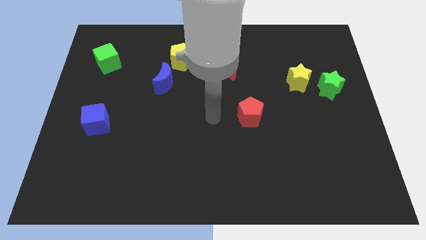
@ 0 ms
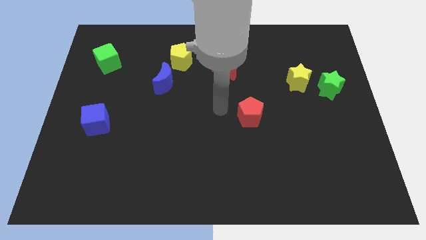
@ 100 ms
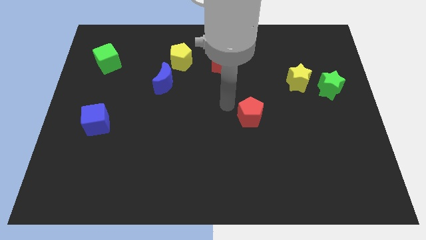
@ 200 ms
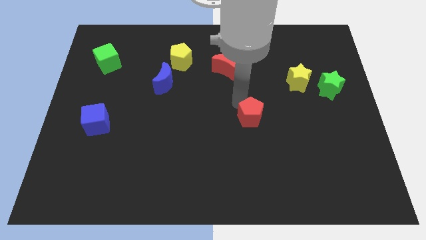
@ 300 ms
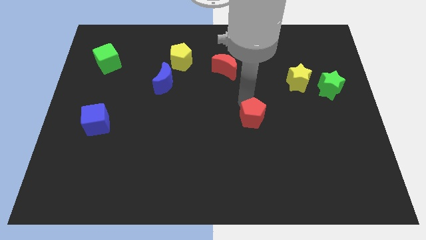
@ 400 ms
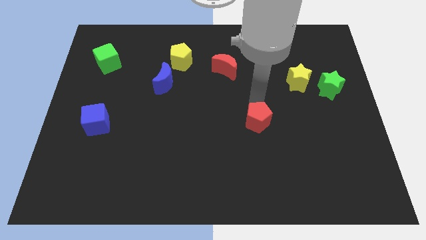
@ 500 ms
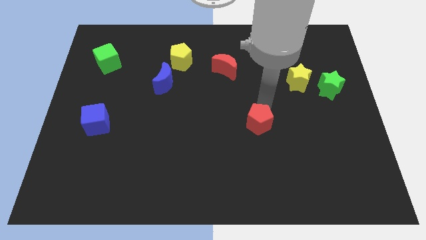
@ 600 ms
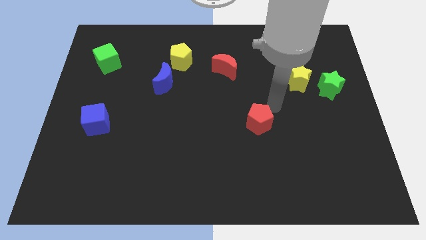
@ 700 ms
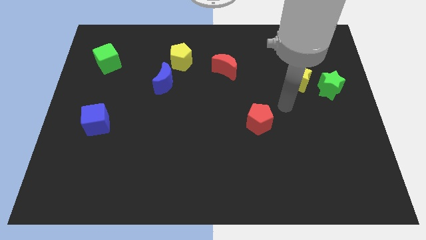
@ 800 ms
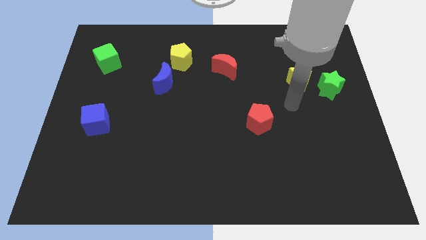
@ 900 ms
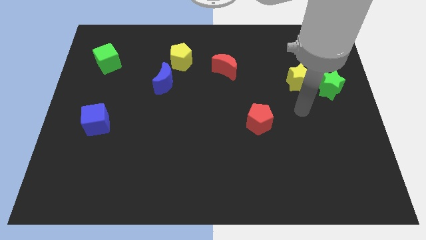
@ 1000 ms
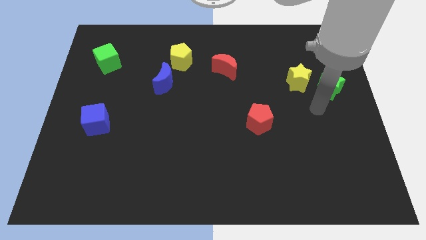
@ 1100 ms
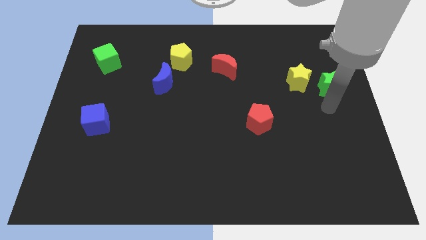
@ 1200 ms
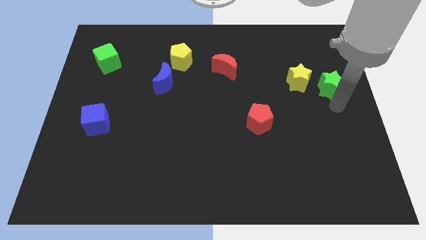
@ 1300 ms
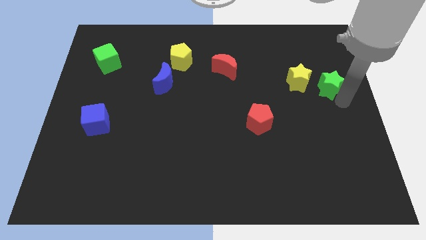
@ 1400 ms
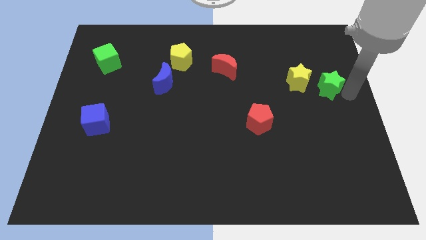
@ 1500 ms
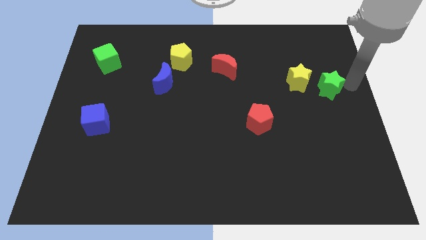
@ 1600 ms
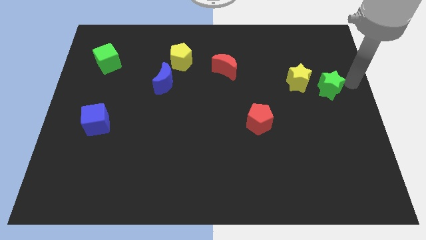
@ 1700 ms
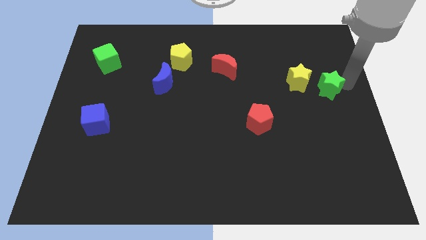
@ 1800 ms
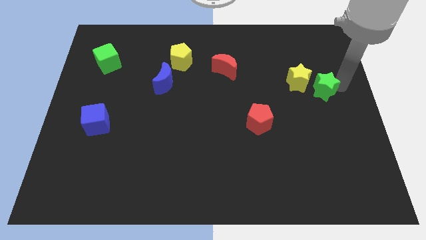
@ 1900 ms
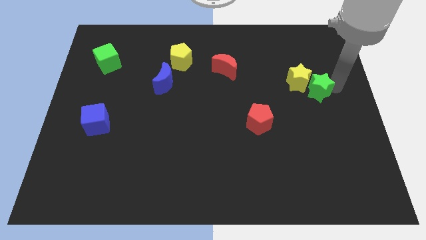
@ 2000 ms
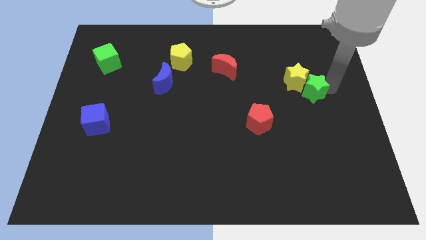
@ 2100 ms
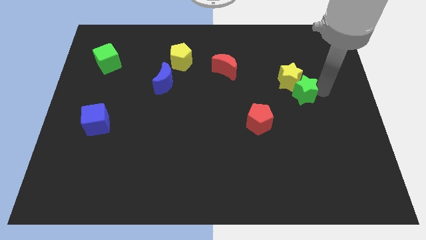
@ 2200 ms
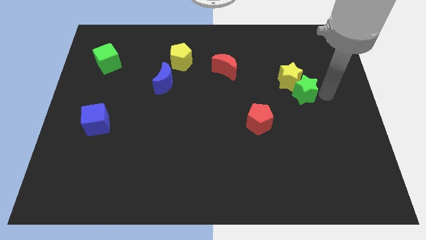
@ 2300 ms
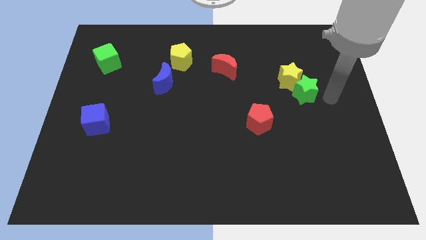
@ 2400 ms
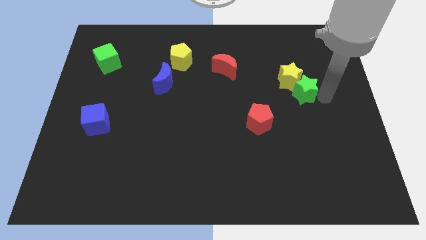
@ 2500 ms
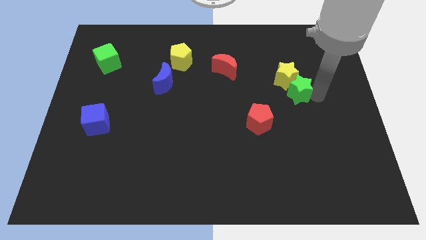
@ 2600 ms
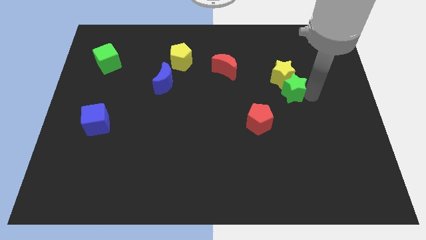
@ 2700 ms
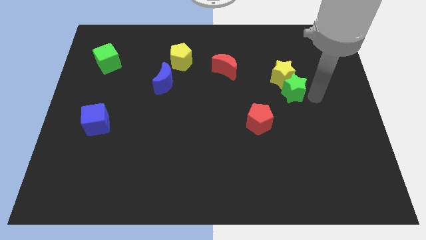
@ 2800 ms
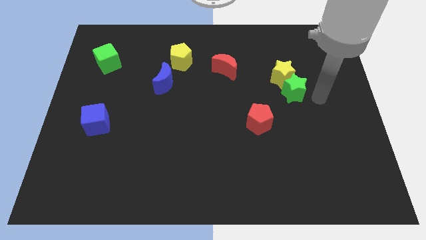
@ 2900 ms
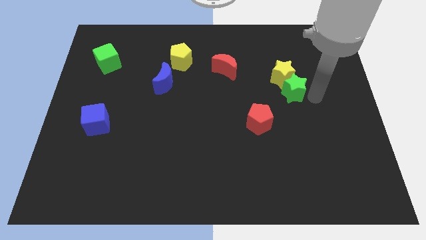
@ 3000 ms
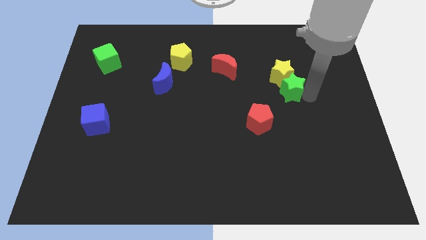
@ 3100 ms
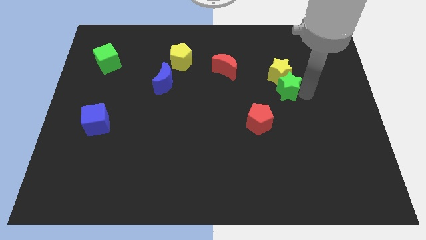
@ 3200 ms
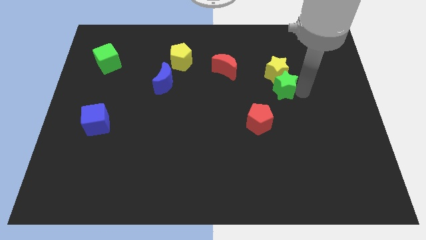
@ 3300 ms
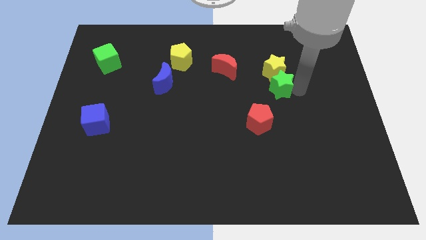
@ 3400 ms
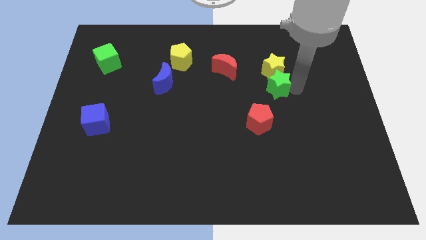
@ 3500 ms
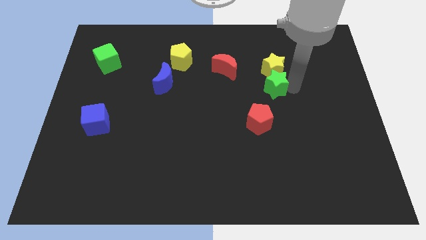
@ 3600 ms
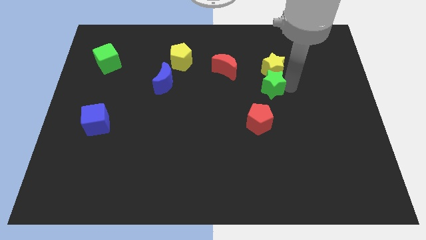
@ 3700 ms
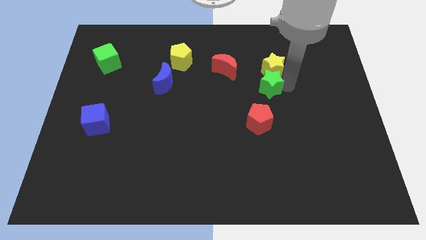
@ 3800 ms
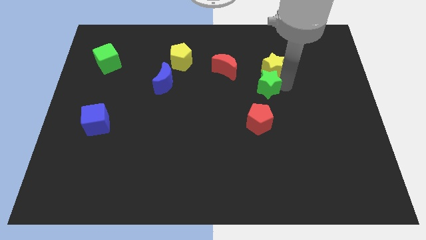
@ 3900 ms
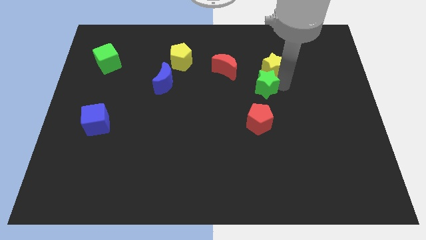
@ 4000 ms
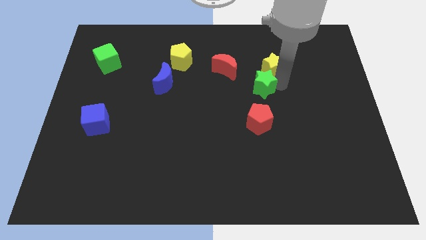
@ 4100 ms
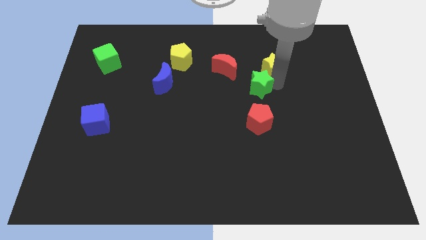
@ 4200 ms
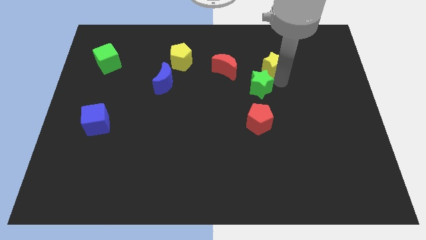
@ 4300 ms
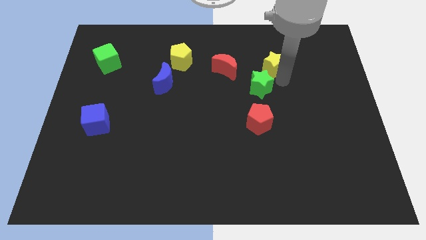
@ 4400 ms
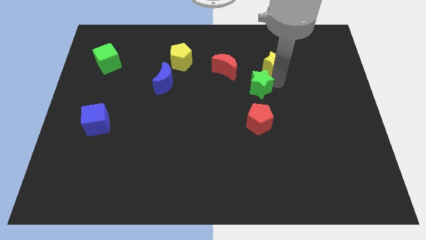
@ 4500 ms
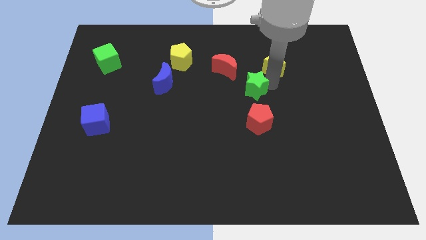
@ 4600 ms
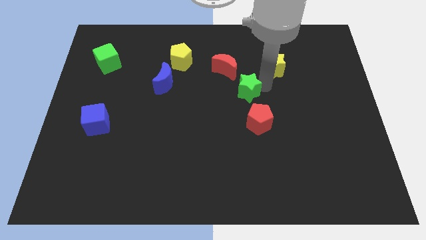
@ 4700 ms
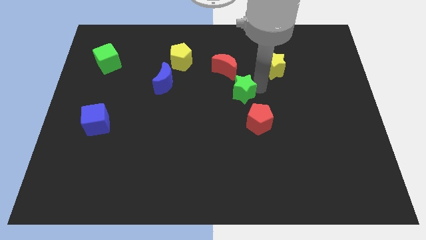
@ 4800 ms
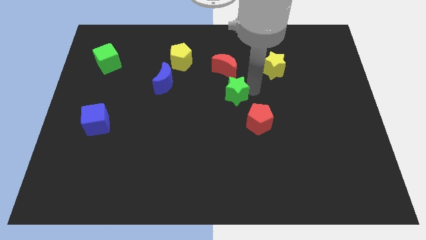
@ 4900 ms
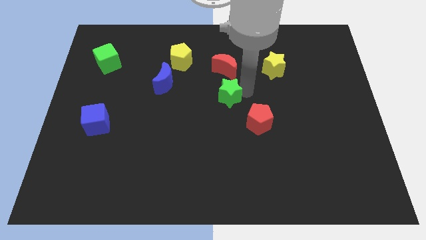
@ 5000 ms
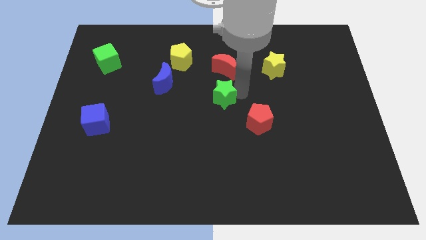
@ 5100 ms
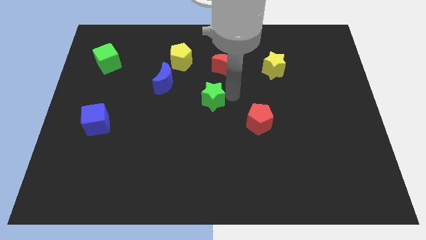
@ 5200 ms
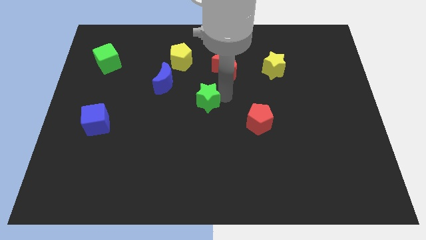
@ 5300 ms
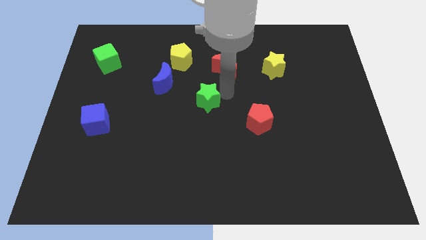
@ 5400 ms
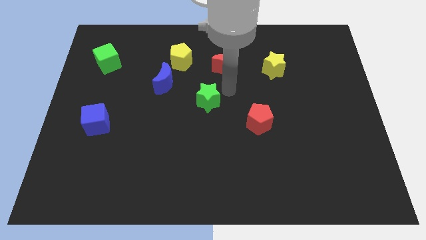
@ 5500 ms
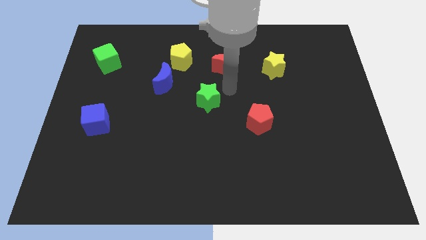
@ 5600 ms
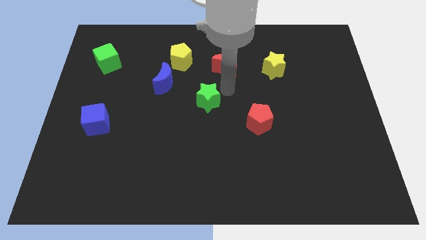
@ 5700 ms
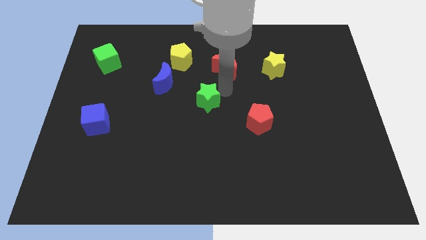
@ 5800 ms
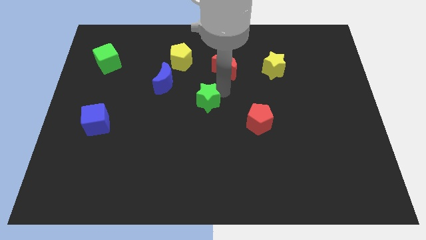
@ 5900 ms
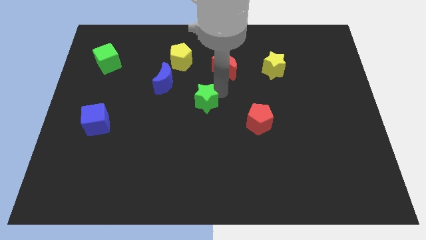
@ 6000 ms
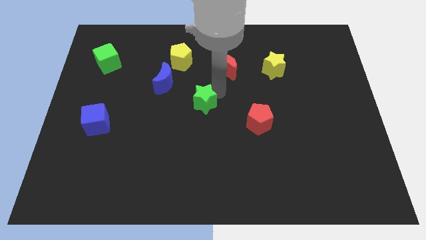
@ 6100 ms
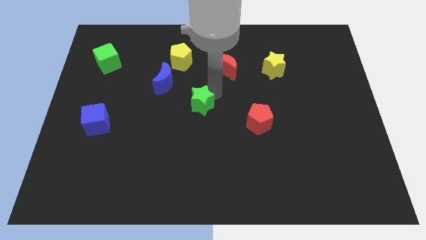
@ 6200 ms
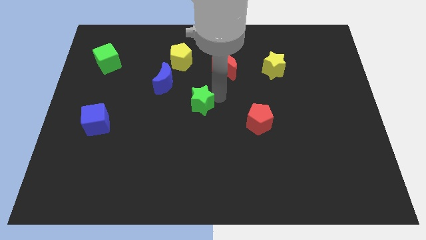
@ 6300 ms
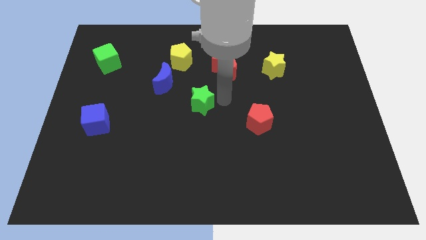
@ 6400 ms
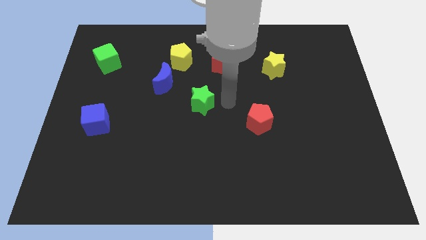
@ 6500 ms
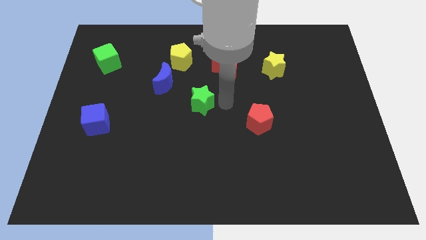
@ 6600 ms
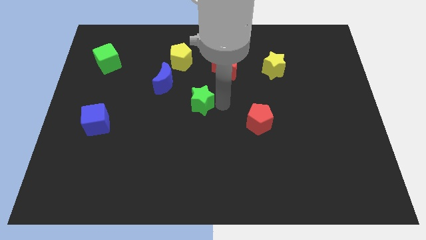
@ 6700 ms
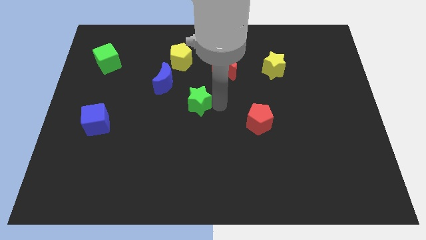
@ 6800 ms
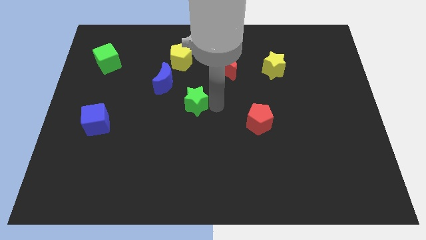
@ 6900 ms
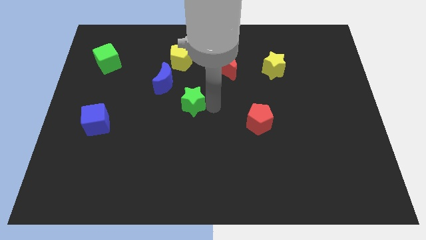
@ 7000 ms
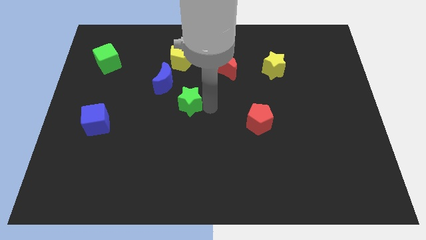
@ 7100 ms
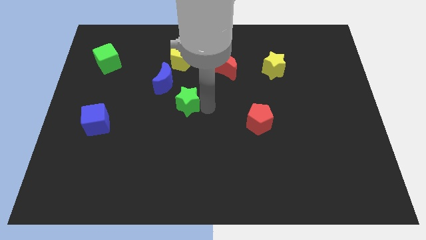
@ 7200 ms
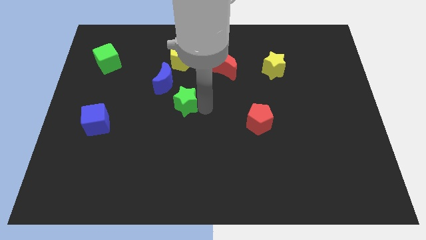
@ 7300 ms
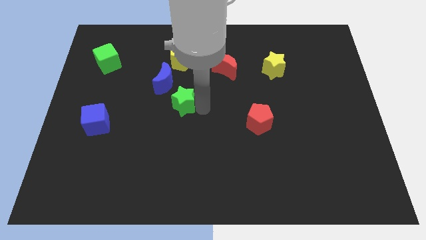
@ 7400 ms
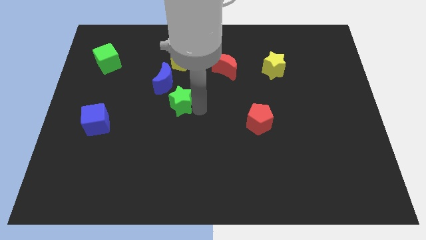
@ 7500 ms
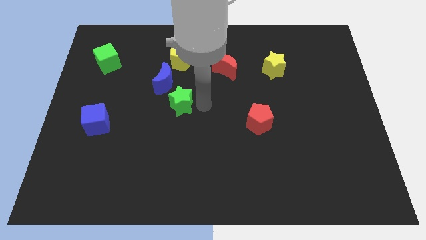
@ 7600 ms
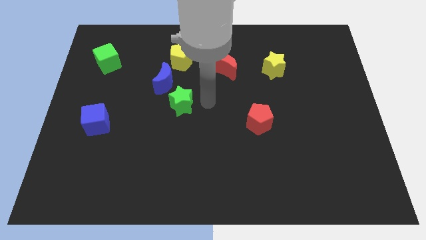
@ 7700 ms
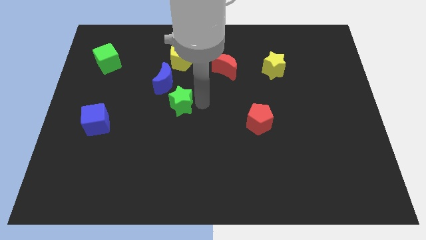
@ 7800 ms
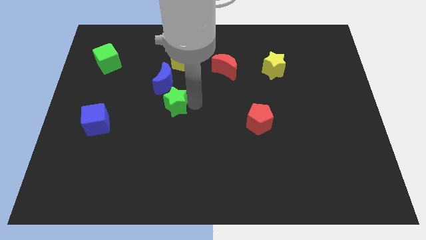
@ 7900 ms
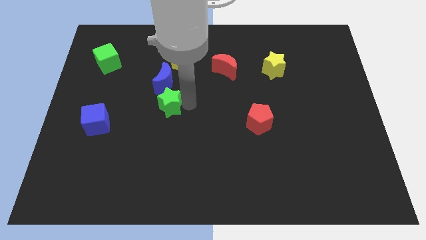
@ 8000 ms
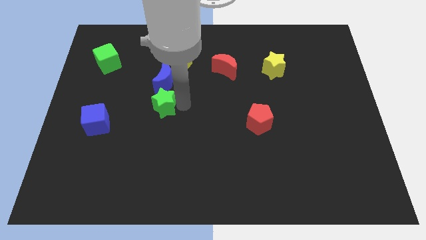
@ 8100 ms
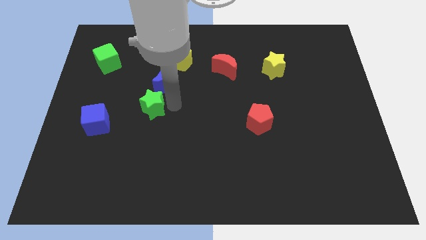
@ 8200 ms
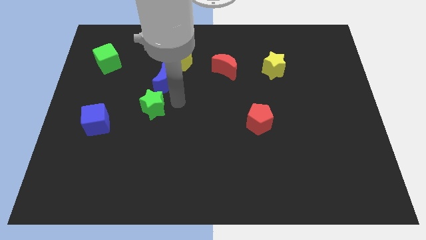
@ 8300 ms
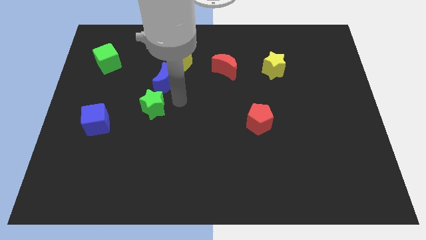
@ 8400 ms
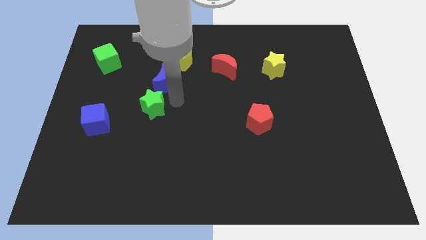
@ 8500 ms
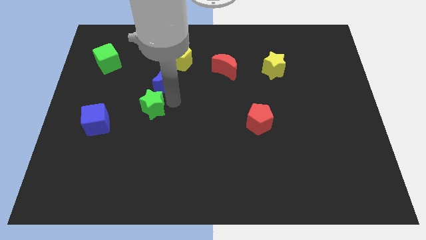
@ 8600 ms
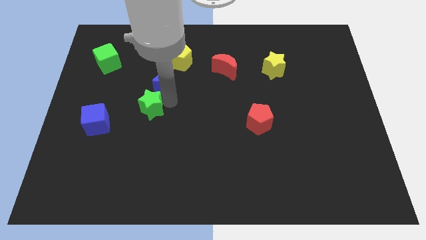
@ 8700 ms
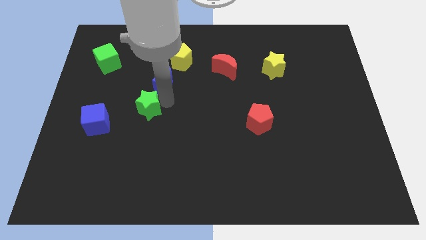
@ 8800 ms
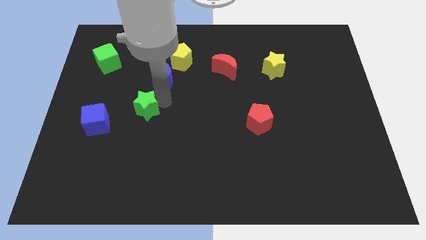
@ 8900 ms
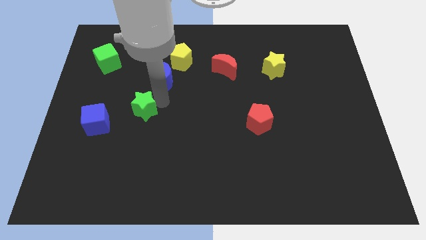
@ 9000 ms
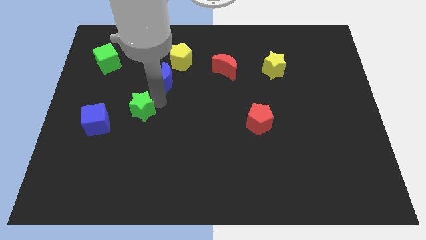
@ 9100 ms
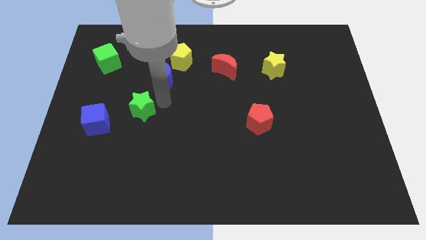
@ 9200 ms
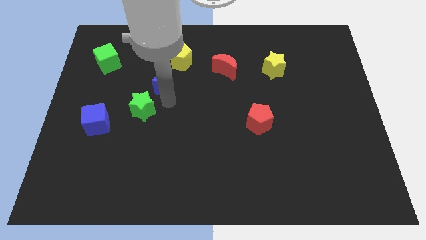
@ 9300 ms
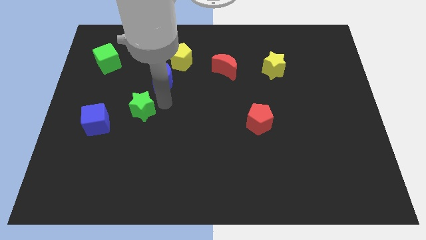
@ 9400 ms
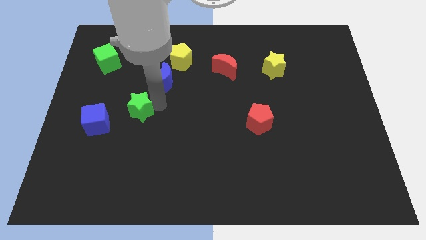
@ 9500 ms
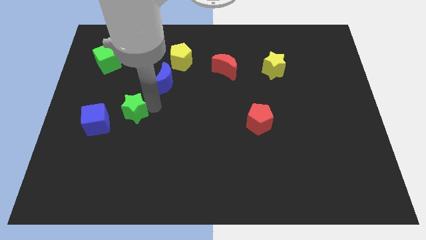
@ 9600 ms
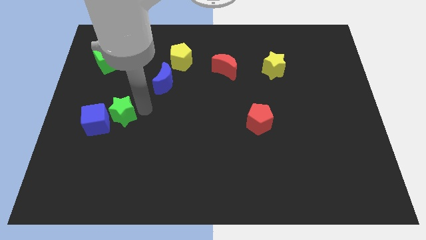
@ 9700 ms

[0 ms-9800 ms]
put the green star towards the blue cube
